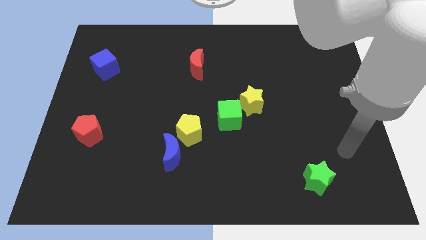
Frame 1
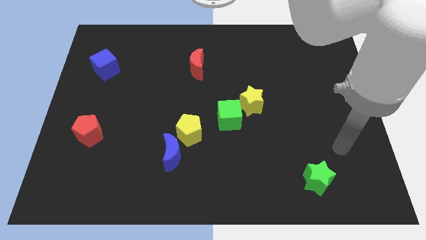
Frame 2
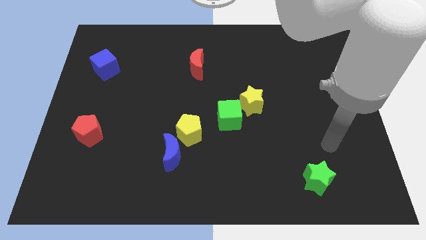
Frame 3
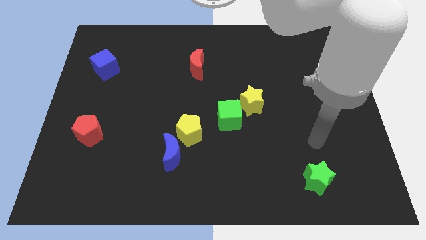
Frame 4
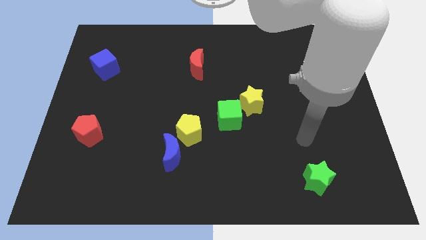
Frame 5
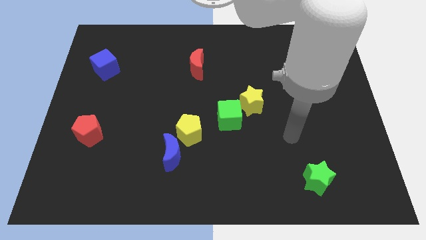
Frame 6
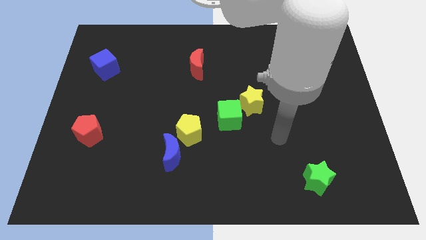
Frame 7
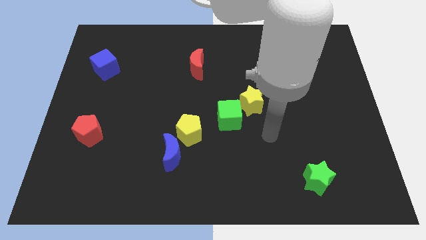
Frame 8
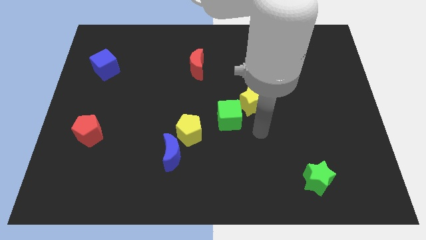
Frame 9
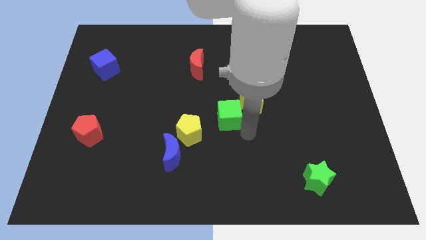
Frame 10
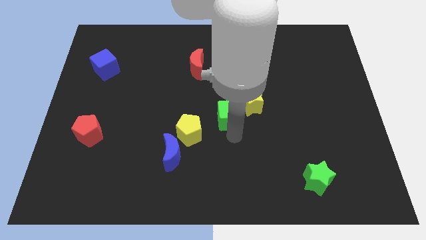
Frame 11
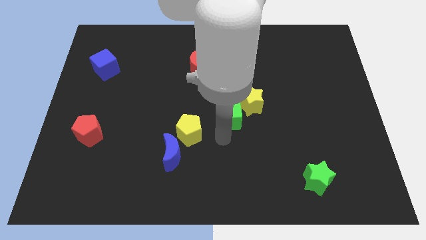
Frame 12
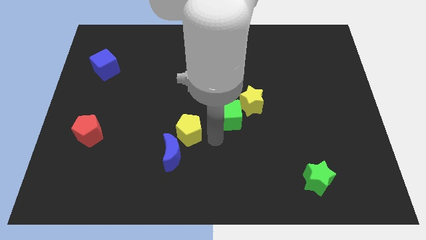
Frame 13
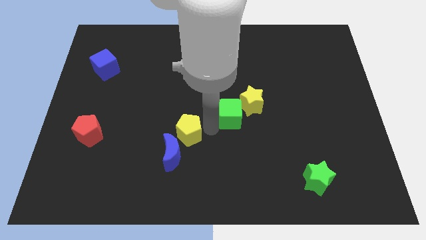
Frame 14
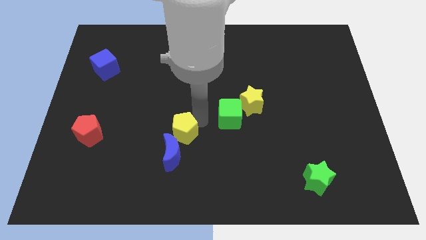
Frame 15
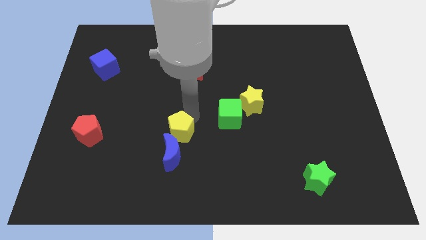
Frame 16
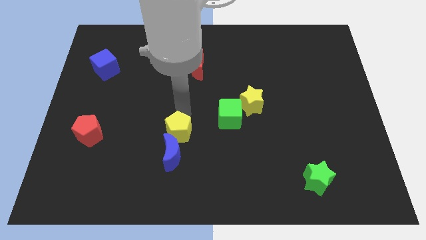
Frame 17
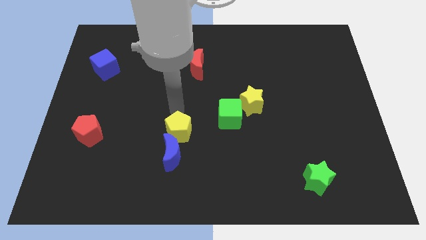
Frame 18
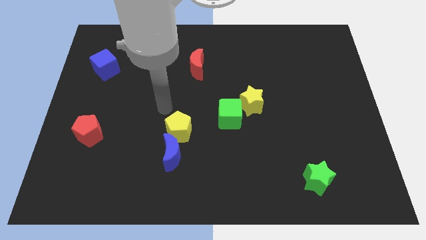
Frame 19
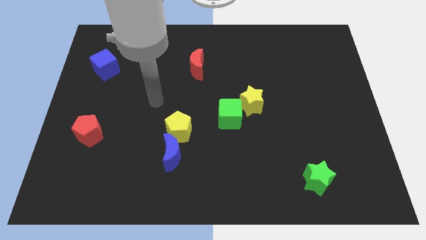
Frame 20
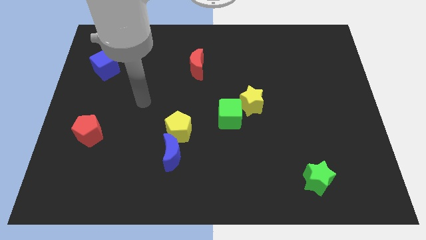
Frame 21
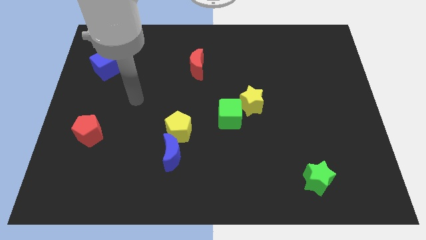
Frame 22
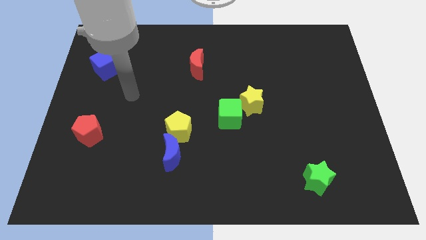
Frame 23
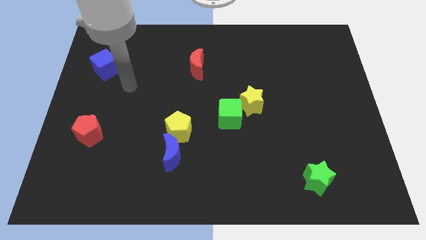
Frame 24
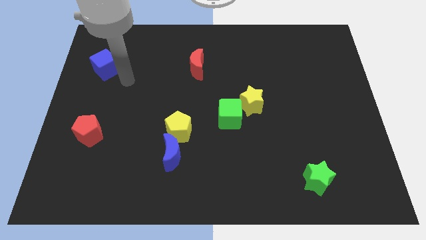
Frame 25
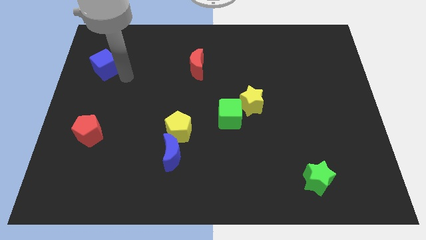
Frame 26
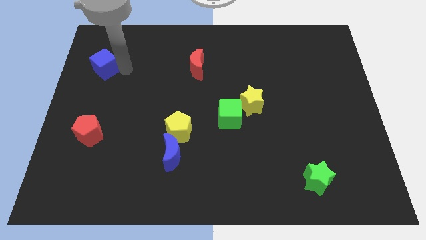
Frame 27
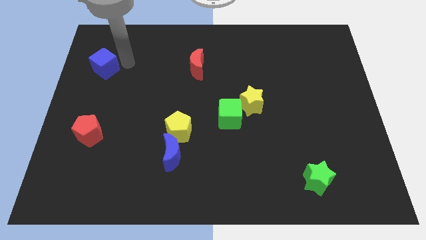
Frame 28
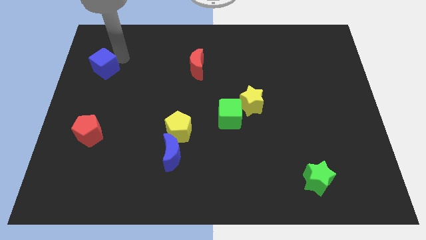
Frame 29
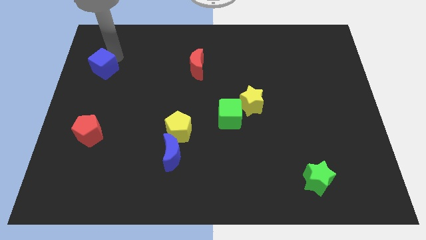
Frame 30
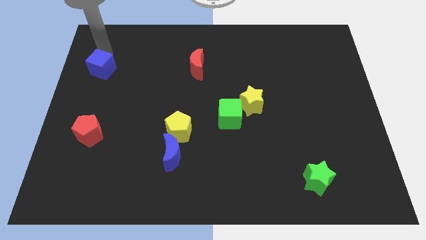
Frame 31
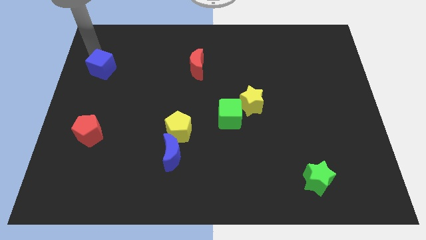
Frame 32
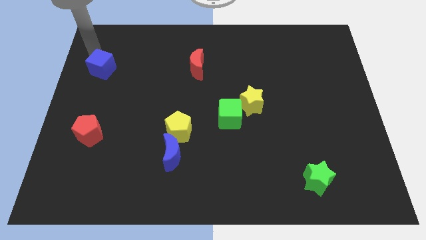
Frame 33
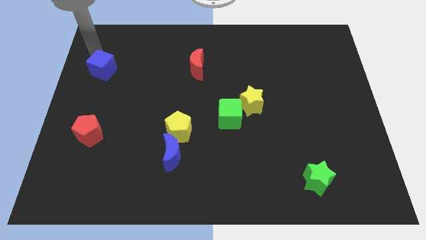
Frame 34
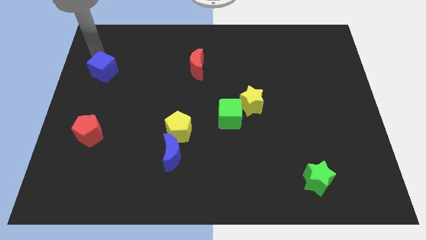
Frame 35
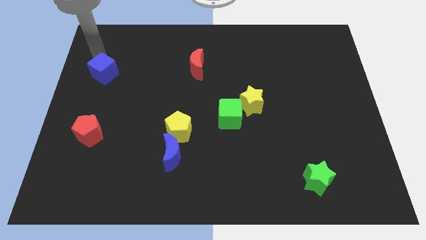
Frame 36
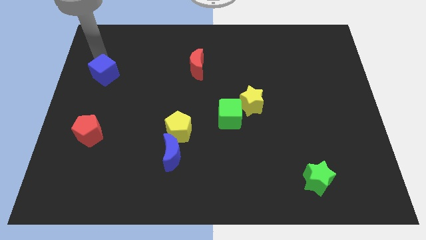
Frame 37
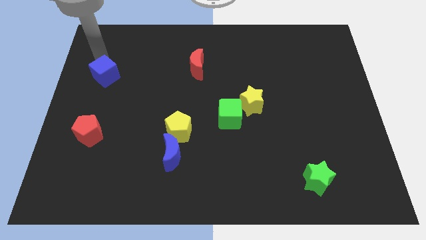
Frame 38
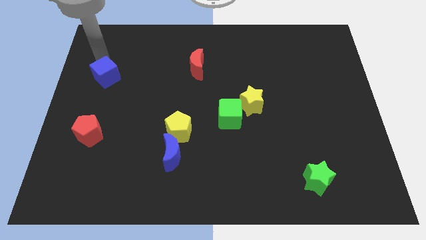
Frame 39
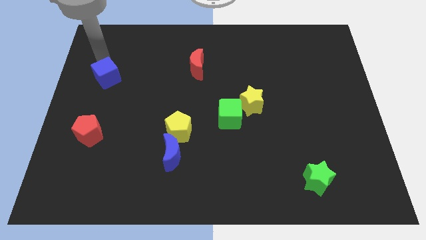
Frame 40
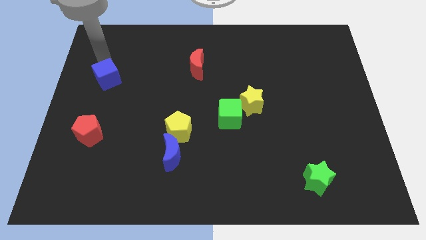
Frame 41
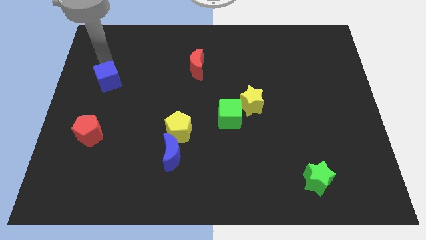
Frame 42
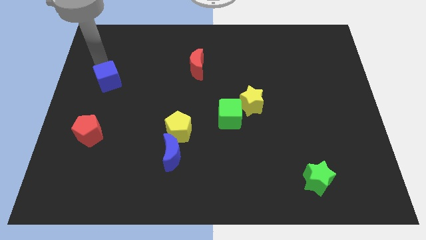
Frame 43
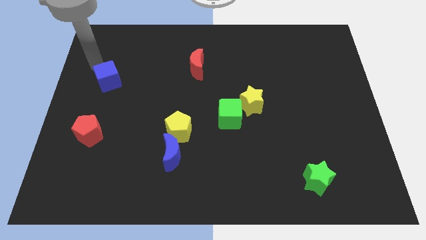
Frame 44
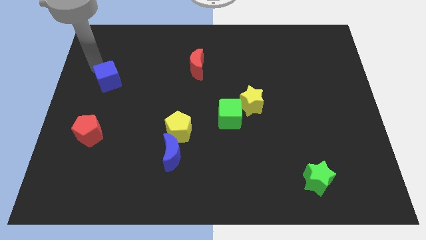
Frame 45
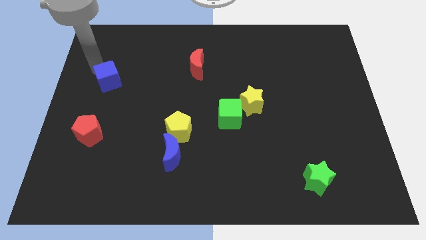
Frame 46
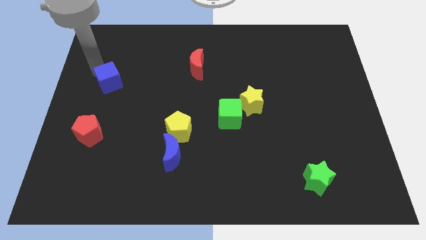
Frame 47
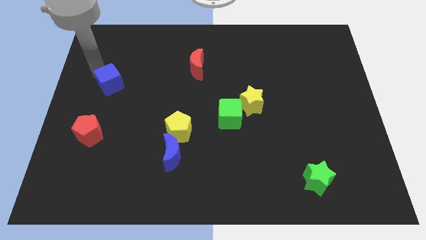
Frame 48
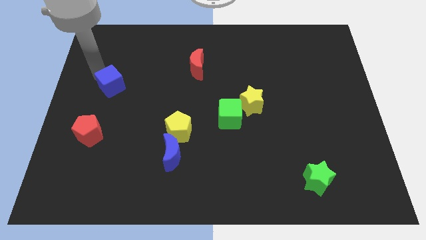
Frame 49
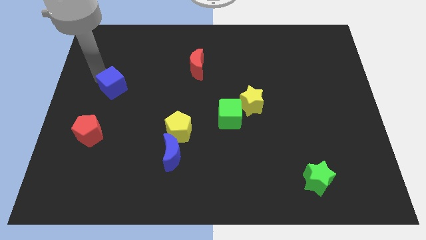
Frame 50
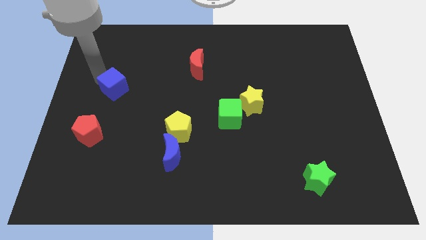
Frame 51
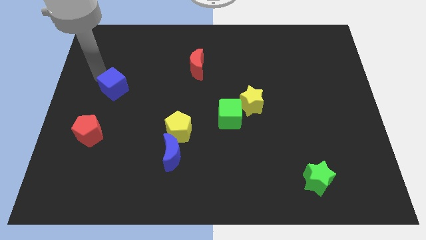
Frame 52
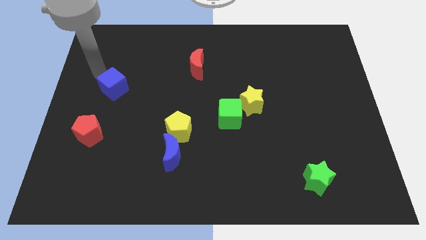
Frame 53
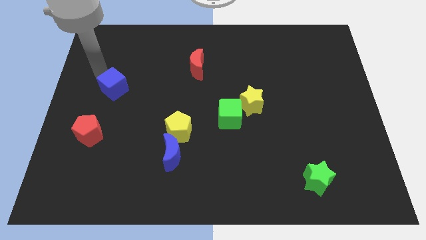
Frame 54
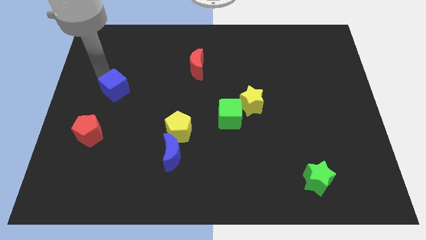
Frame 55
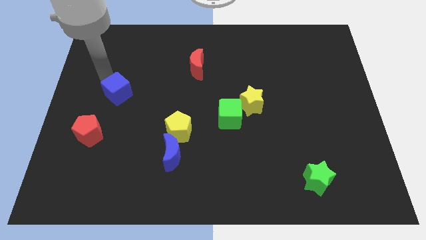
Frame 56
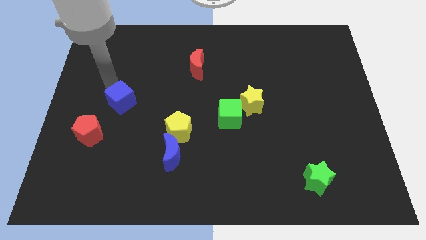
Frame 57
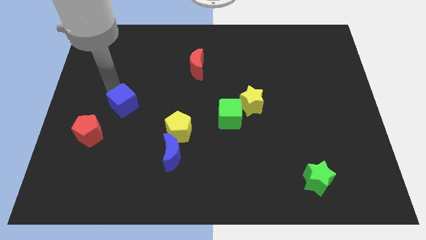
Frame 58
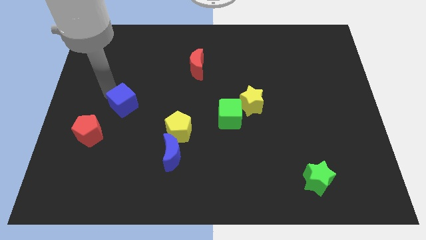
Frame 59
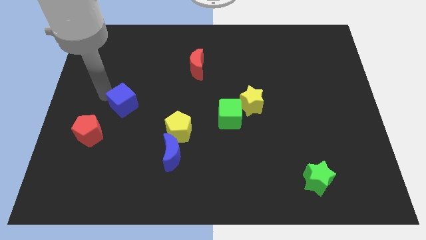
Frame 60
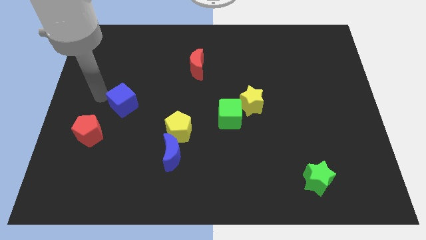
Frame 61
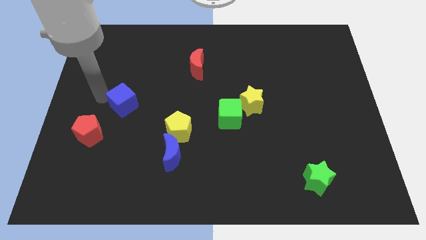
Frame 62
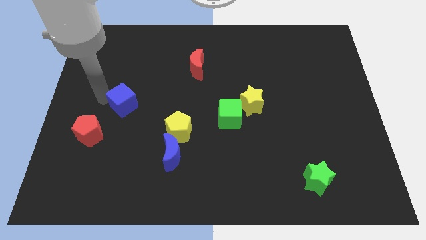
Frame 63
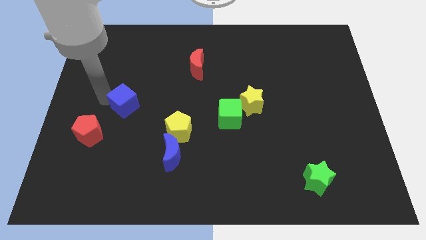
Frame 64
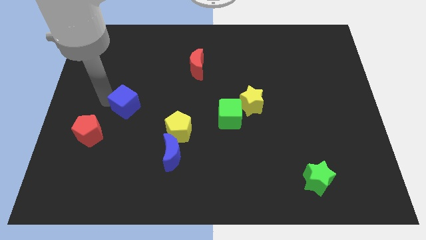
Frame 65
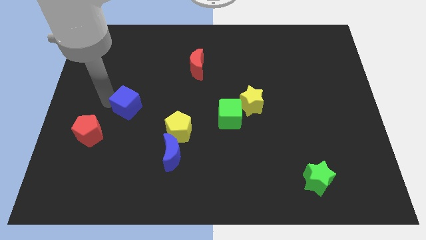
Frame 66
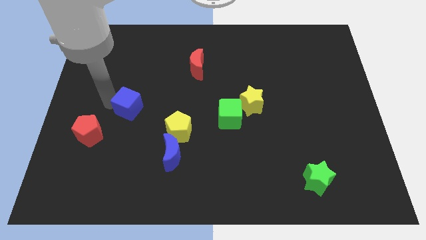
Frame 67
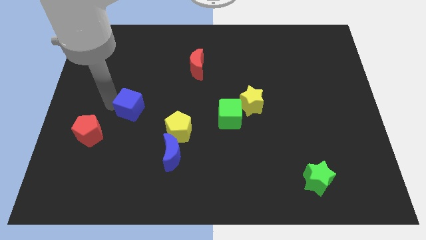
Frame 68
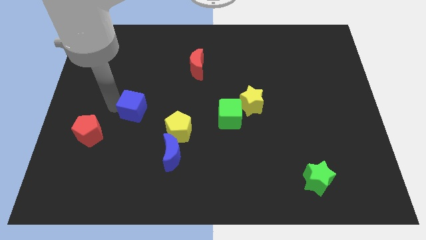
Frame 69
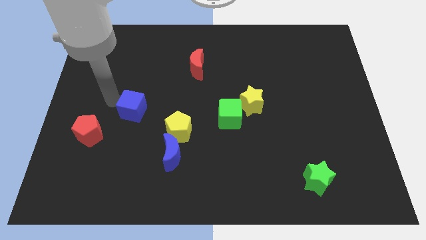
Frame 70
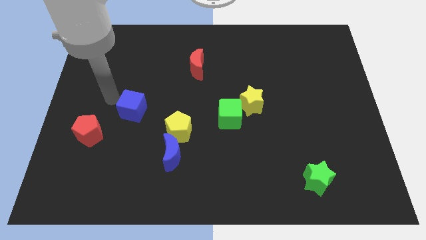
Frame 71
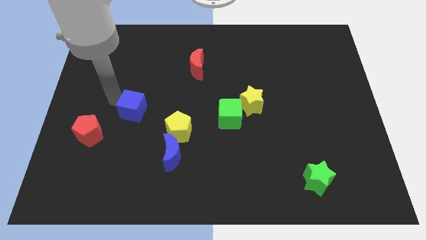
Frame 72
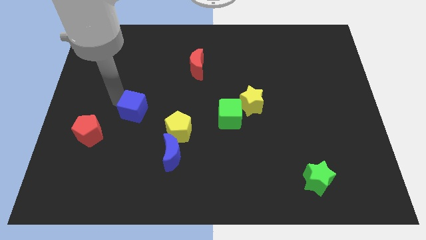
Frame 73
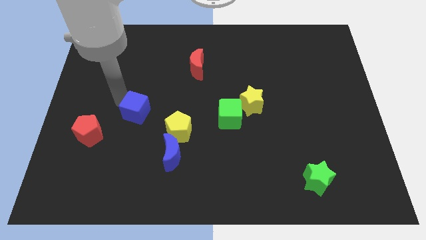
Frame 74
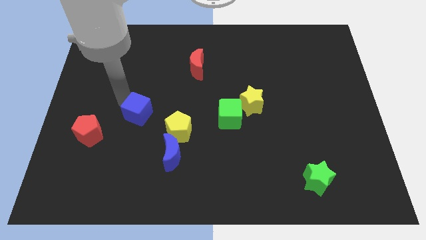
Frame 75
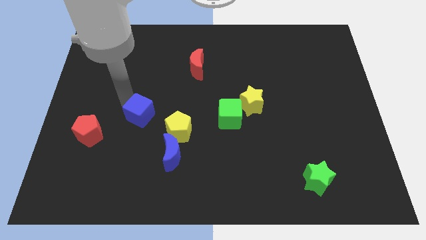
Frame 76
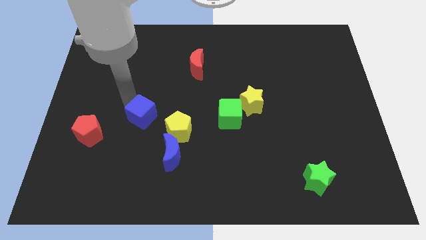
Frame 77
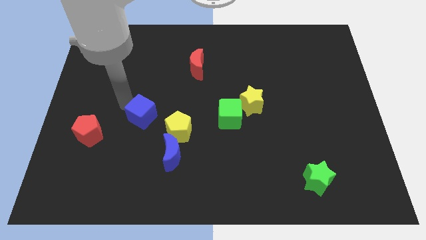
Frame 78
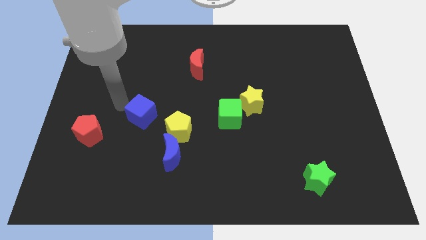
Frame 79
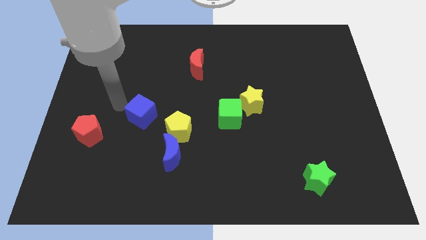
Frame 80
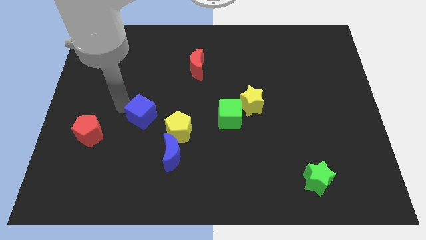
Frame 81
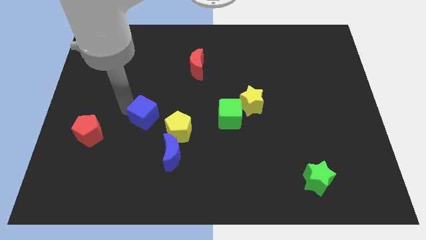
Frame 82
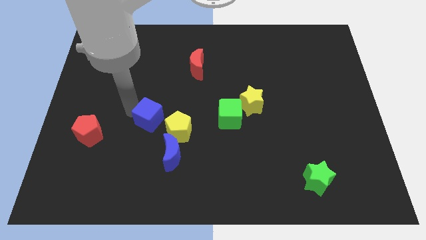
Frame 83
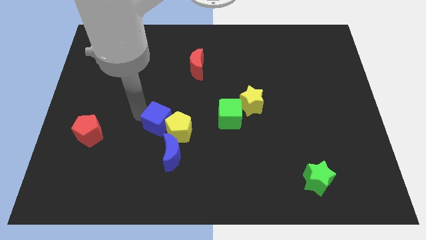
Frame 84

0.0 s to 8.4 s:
push the blue cube next to the yellow pentagon
